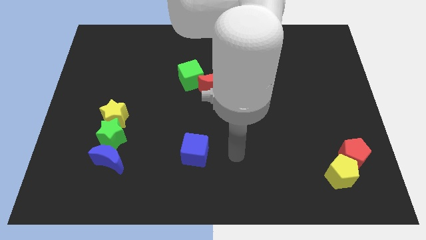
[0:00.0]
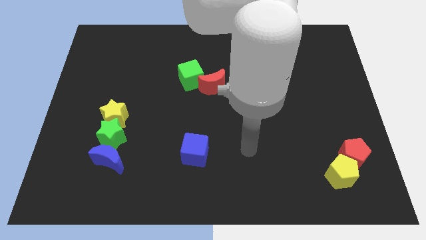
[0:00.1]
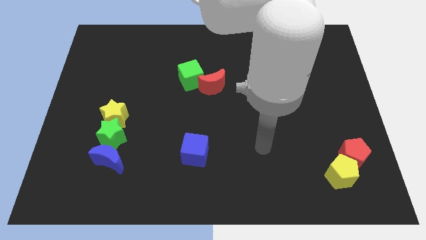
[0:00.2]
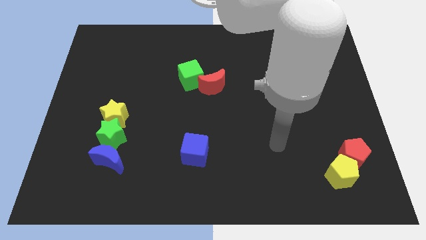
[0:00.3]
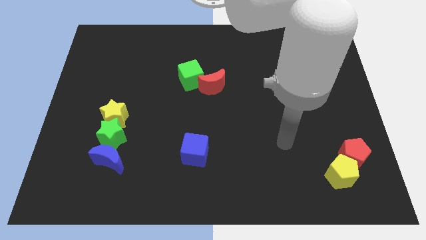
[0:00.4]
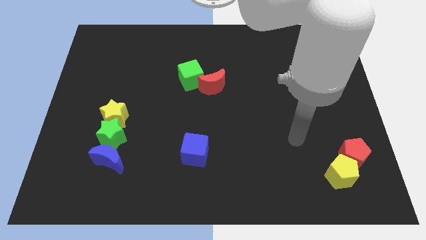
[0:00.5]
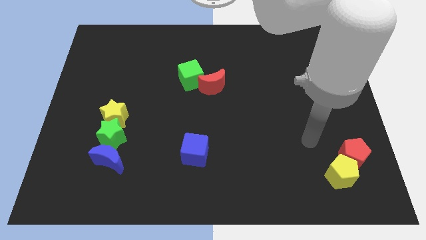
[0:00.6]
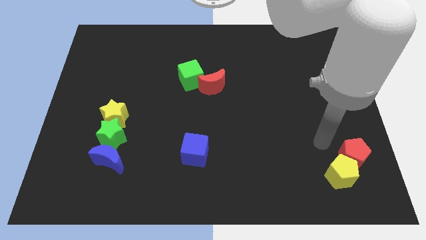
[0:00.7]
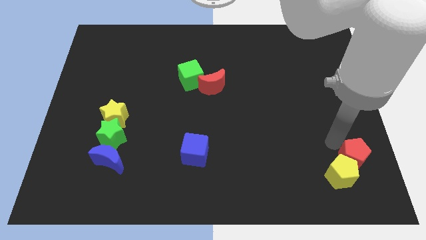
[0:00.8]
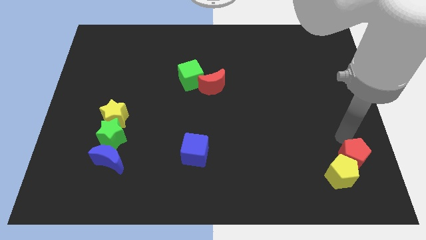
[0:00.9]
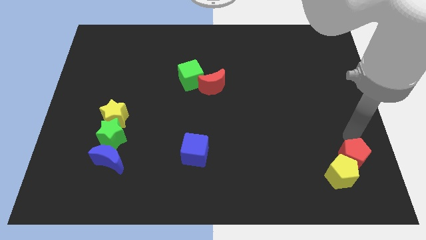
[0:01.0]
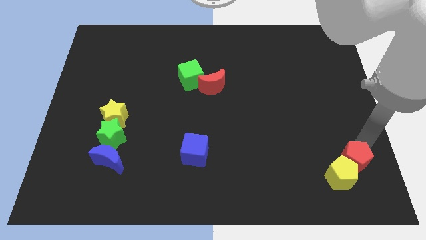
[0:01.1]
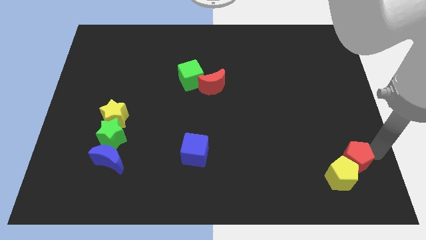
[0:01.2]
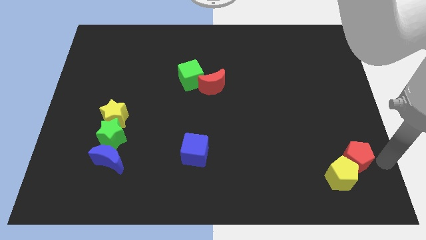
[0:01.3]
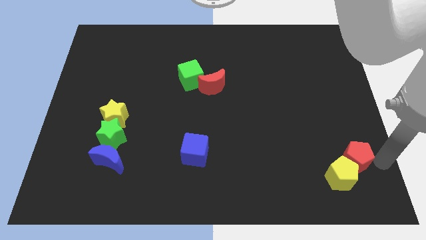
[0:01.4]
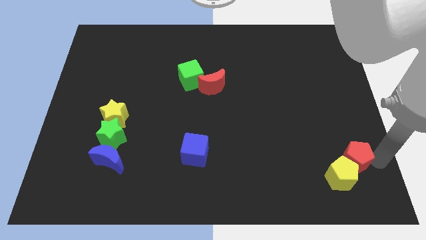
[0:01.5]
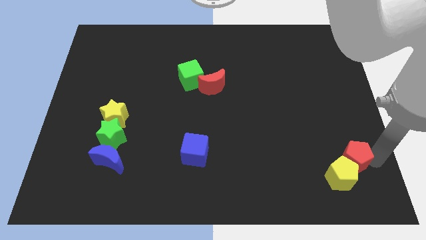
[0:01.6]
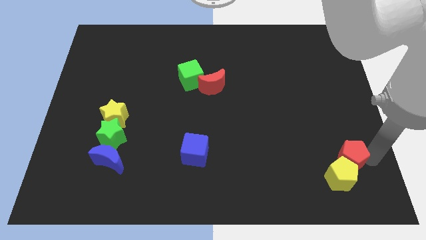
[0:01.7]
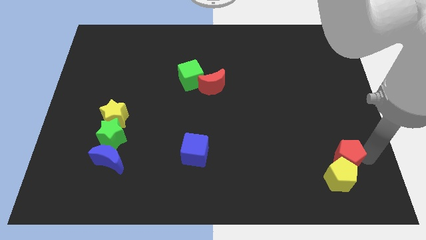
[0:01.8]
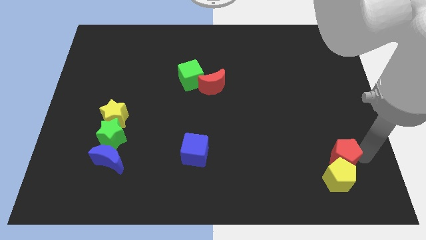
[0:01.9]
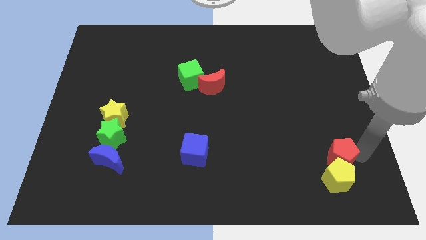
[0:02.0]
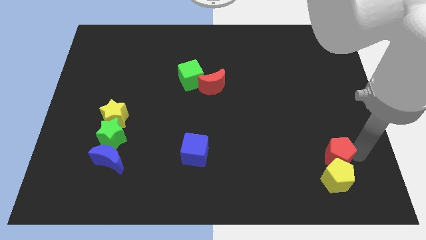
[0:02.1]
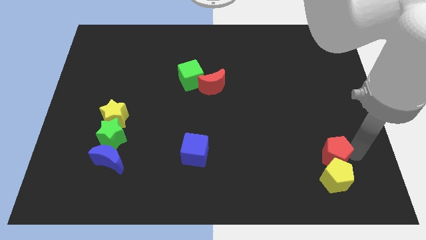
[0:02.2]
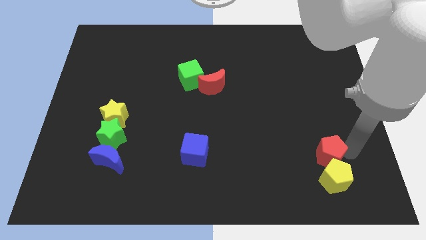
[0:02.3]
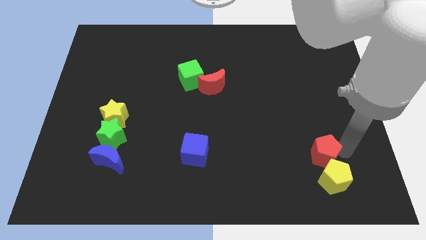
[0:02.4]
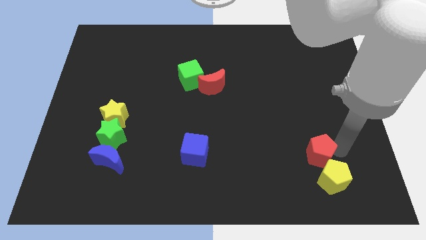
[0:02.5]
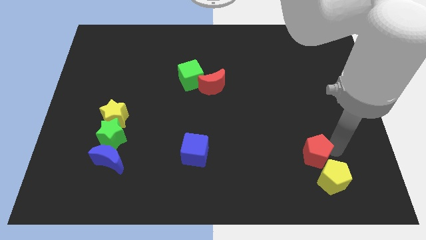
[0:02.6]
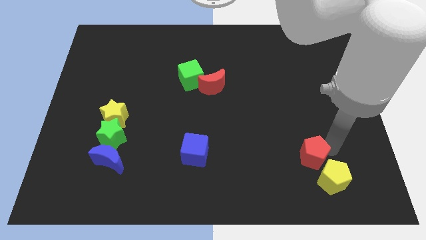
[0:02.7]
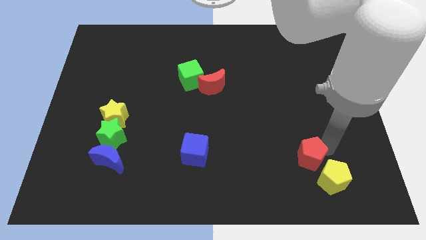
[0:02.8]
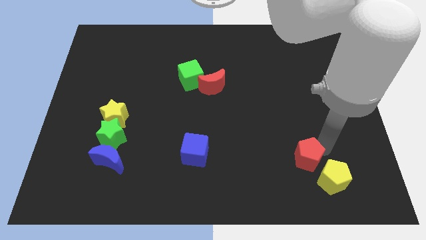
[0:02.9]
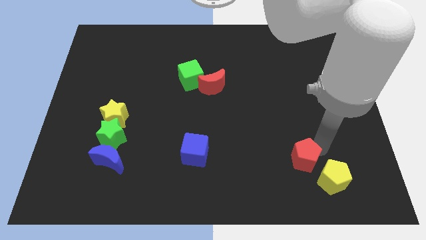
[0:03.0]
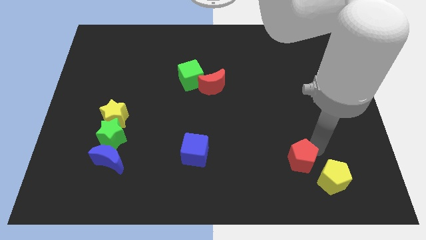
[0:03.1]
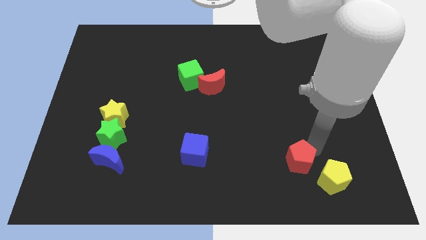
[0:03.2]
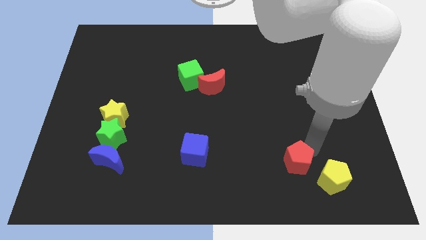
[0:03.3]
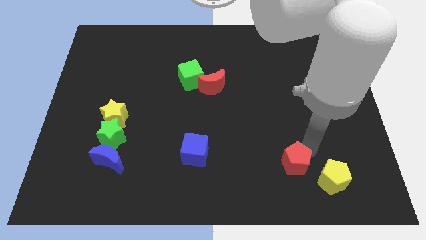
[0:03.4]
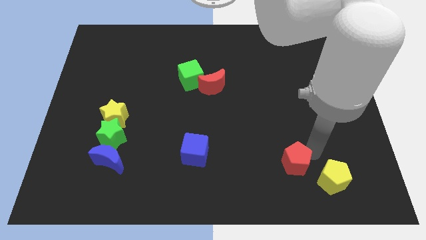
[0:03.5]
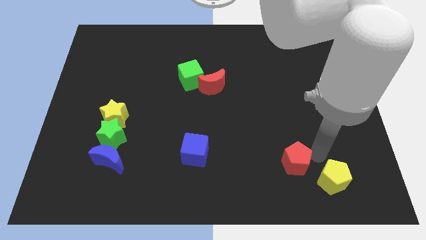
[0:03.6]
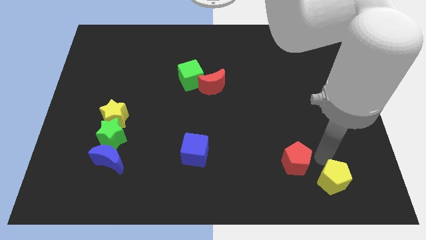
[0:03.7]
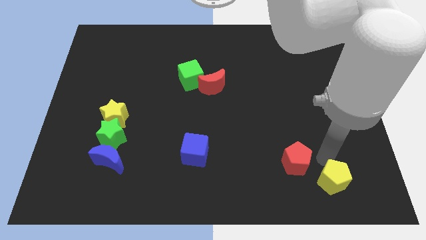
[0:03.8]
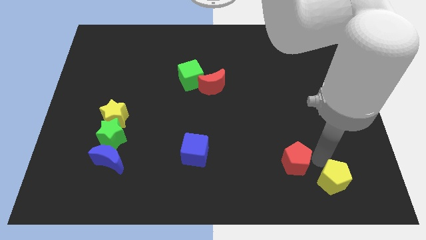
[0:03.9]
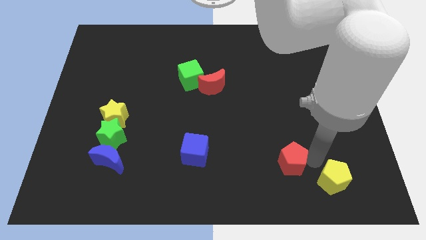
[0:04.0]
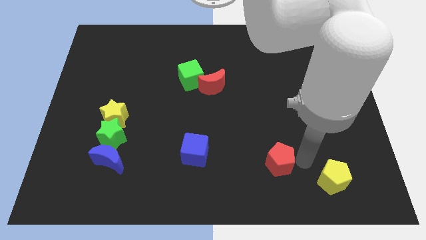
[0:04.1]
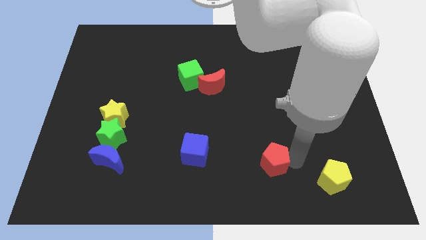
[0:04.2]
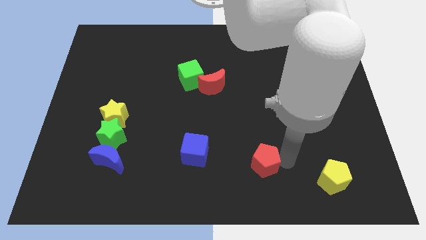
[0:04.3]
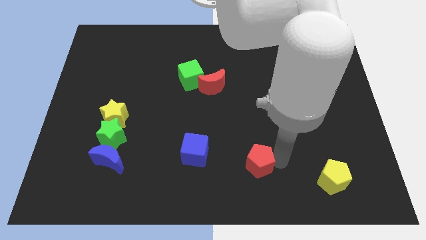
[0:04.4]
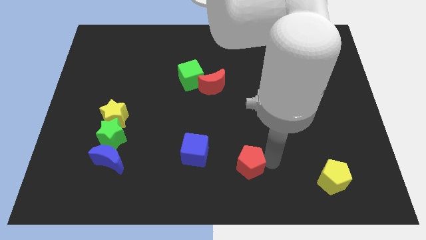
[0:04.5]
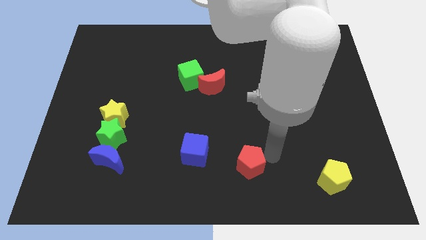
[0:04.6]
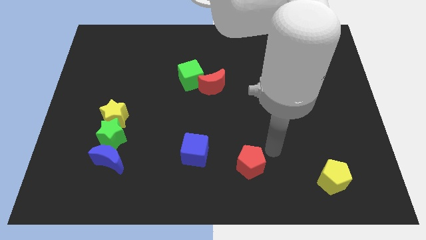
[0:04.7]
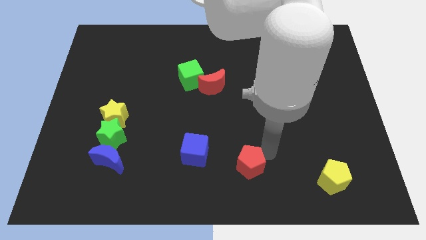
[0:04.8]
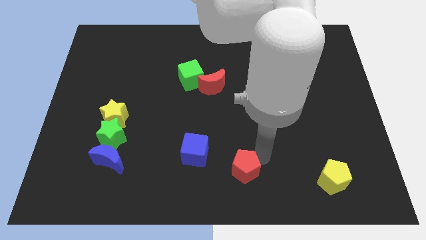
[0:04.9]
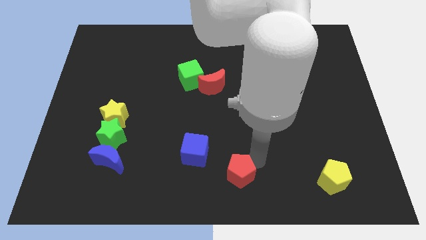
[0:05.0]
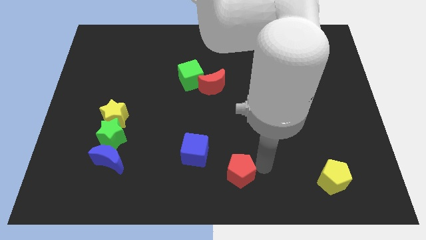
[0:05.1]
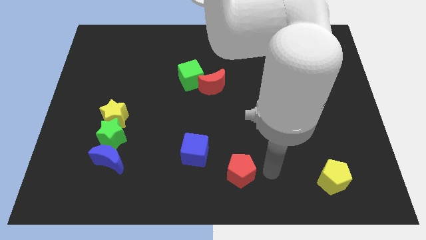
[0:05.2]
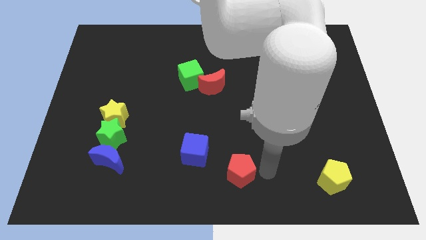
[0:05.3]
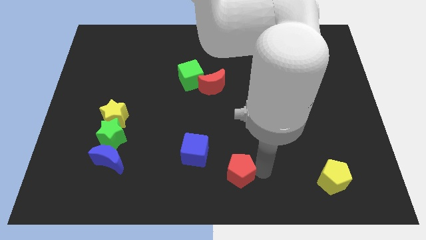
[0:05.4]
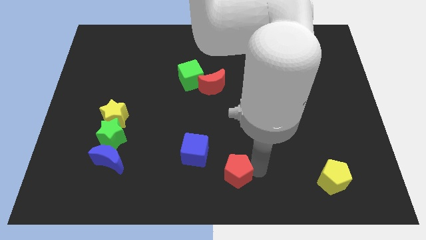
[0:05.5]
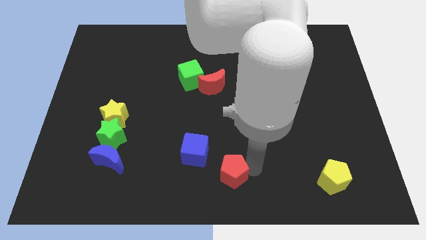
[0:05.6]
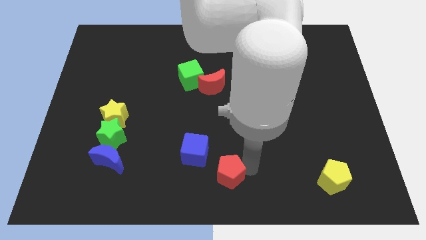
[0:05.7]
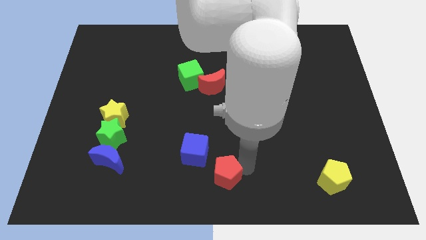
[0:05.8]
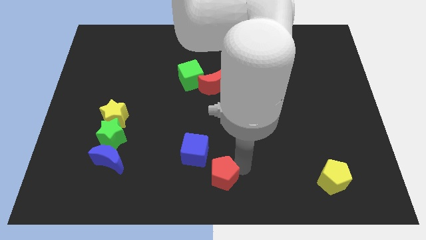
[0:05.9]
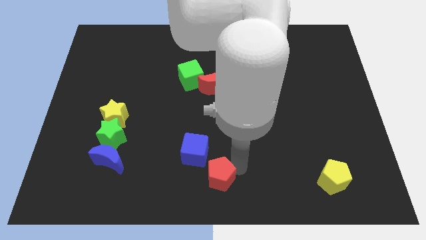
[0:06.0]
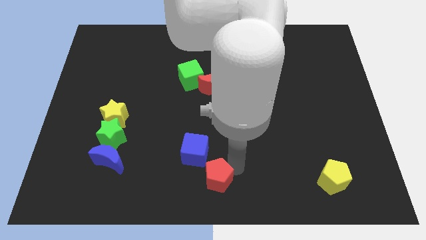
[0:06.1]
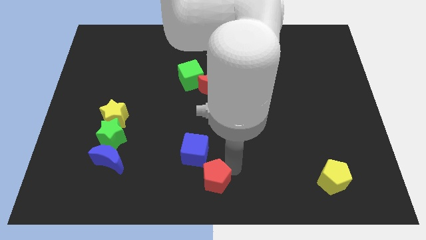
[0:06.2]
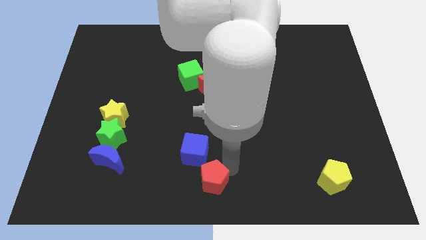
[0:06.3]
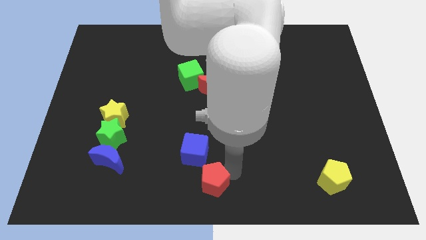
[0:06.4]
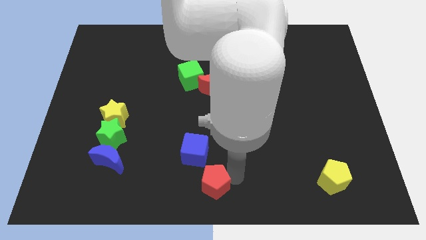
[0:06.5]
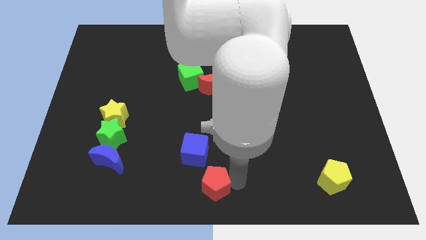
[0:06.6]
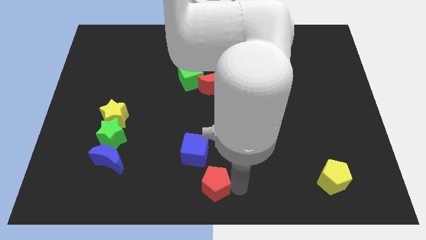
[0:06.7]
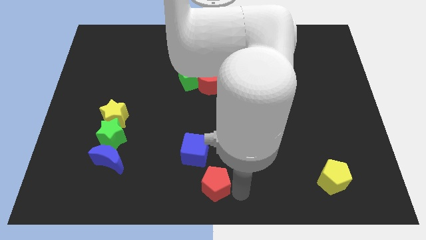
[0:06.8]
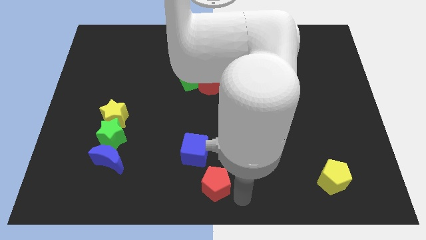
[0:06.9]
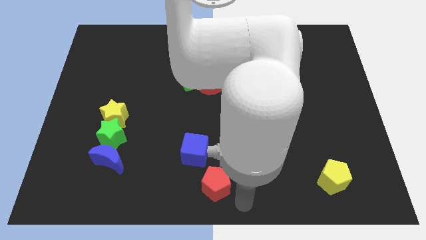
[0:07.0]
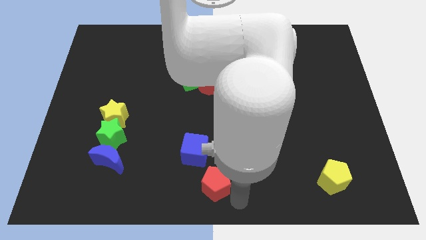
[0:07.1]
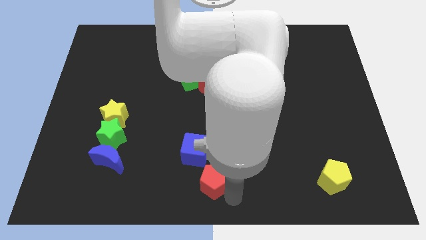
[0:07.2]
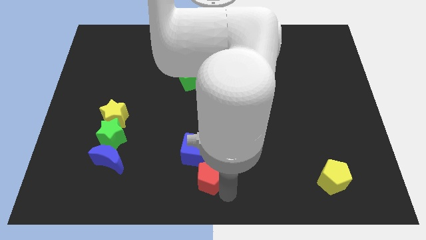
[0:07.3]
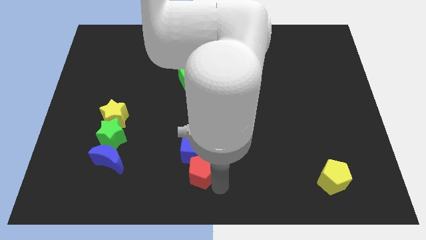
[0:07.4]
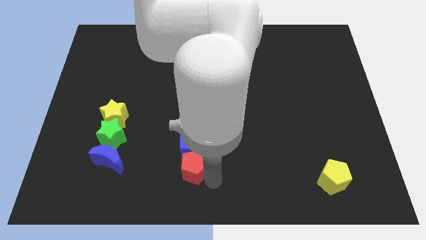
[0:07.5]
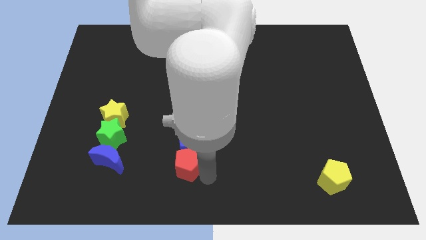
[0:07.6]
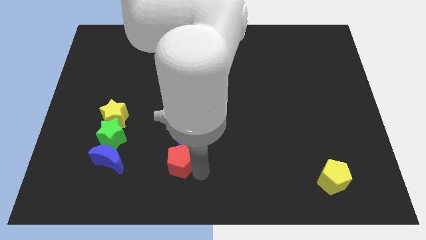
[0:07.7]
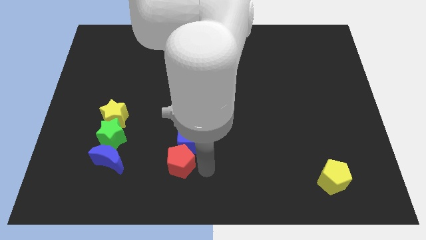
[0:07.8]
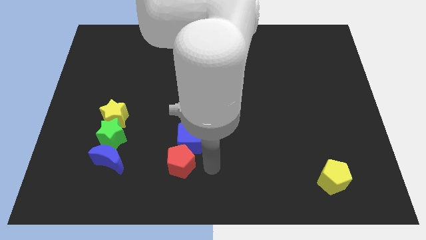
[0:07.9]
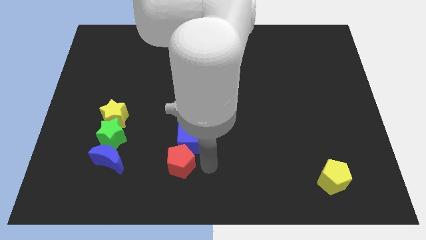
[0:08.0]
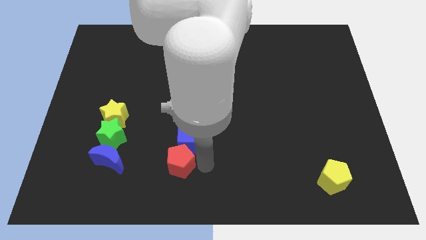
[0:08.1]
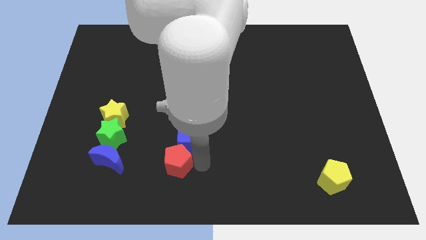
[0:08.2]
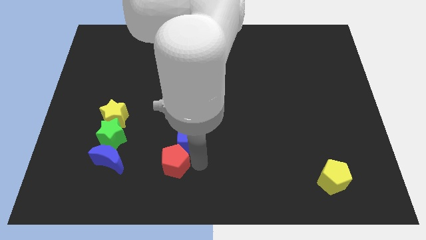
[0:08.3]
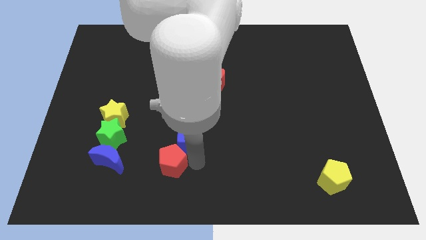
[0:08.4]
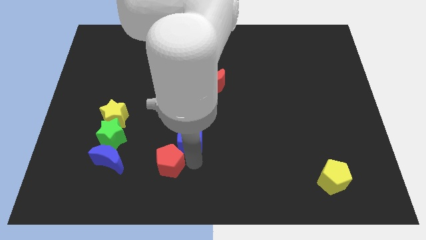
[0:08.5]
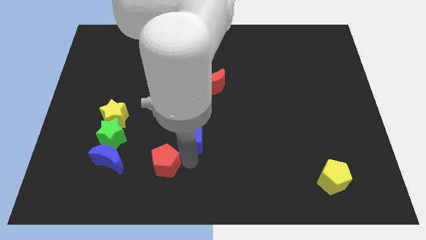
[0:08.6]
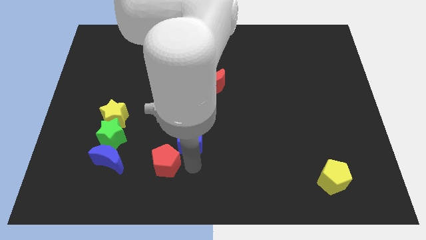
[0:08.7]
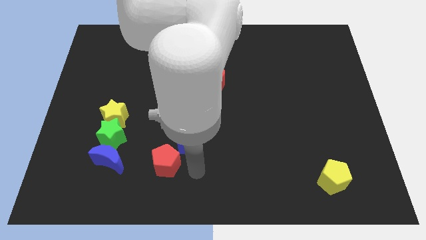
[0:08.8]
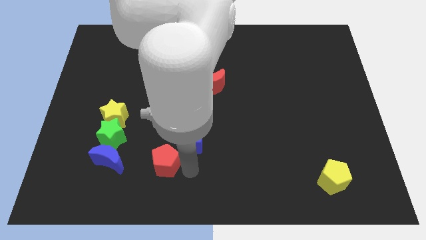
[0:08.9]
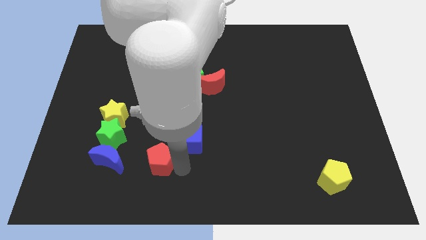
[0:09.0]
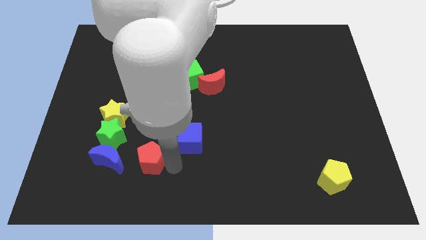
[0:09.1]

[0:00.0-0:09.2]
slide the red pentagon to the bottom right of the green star
